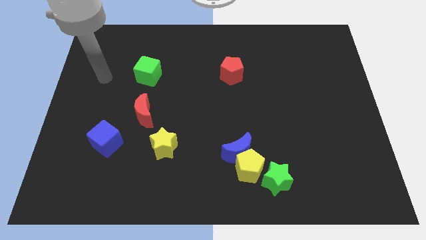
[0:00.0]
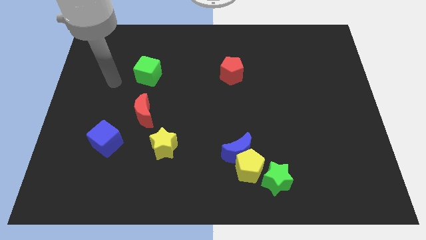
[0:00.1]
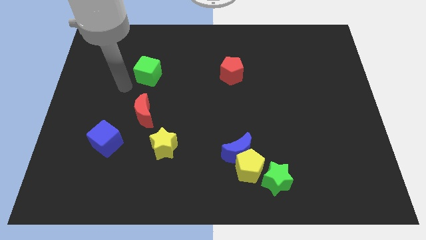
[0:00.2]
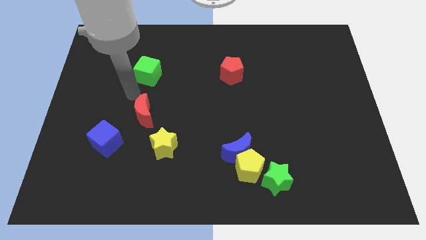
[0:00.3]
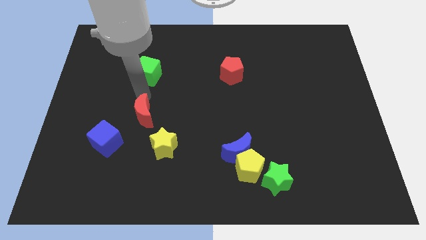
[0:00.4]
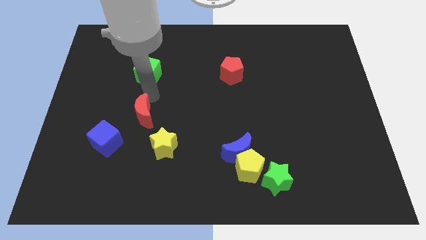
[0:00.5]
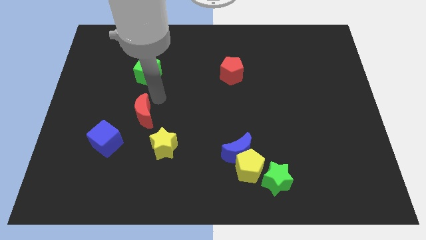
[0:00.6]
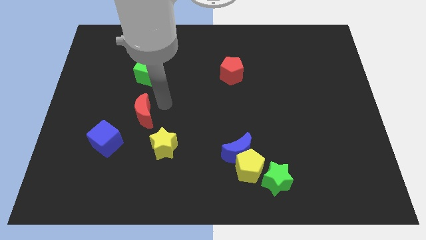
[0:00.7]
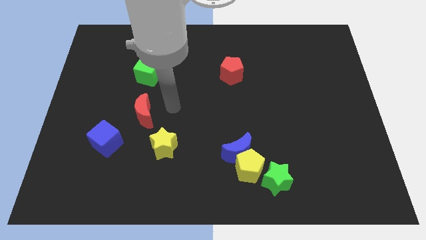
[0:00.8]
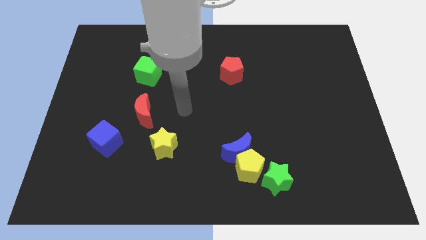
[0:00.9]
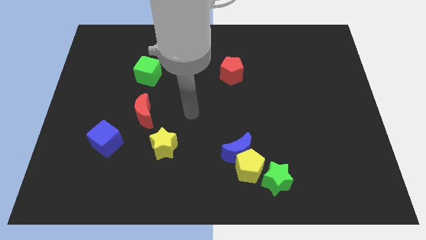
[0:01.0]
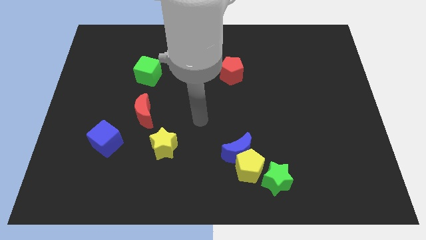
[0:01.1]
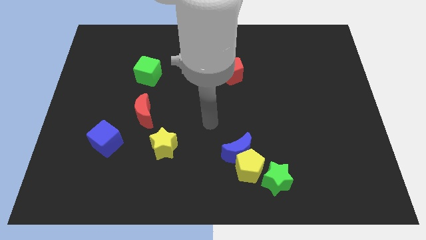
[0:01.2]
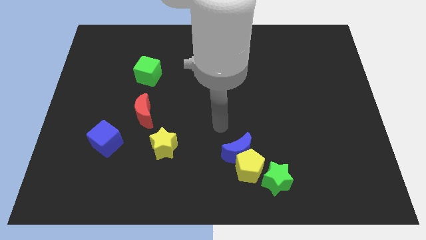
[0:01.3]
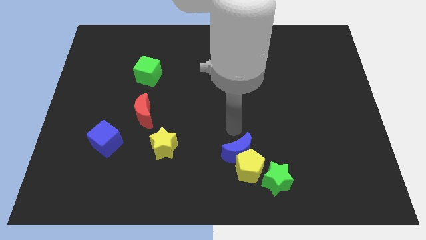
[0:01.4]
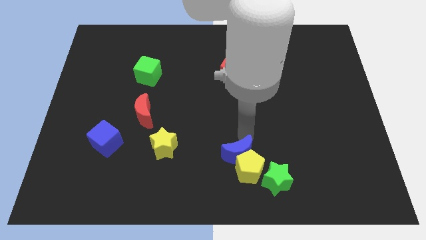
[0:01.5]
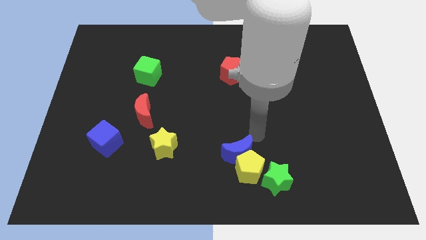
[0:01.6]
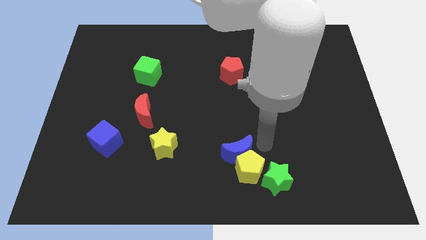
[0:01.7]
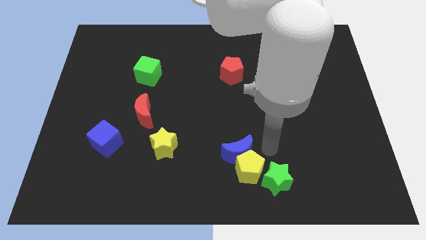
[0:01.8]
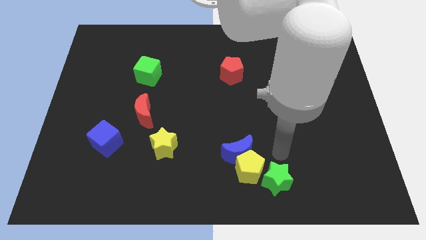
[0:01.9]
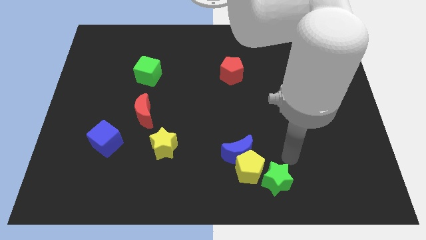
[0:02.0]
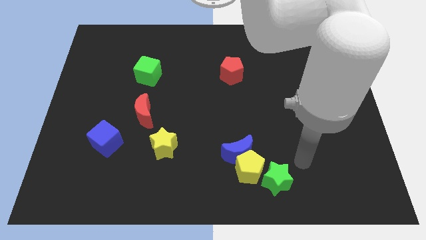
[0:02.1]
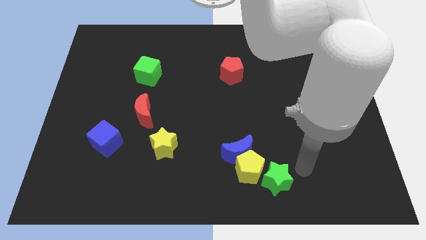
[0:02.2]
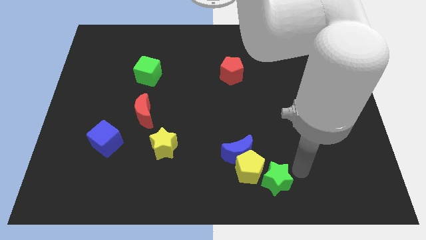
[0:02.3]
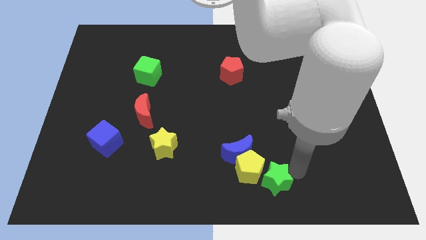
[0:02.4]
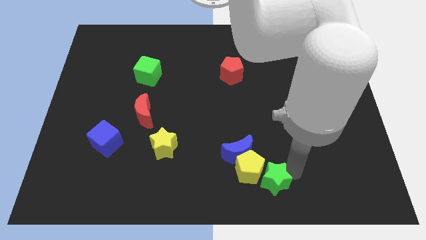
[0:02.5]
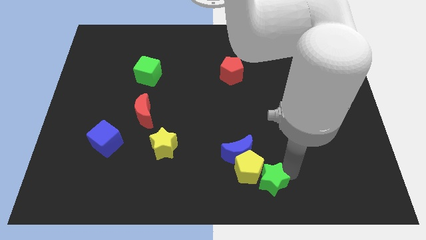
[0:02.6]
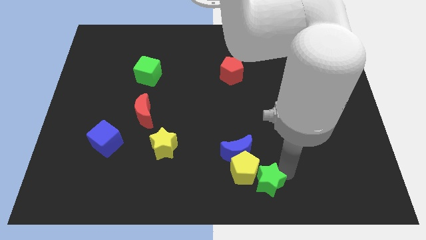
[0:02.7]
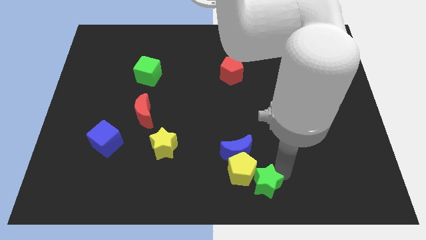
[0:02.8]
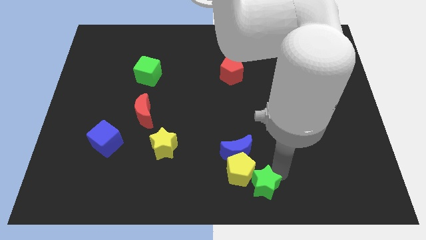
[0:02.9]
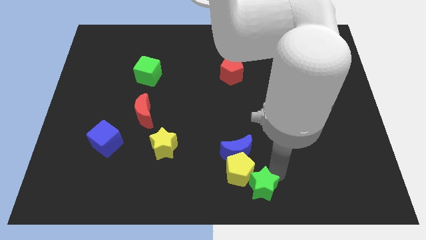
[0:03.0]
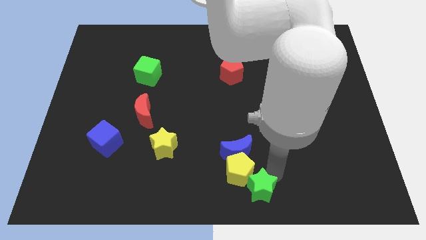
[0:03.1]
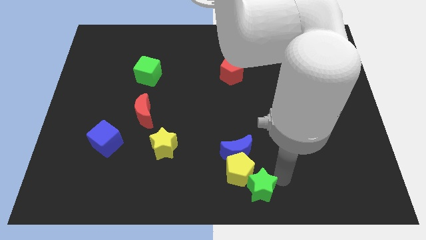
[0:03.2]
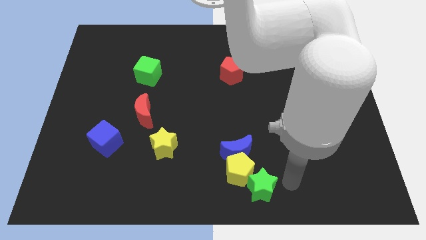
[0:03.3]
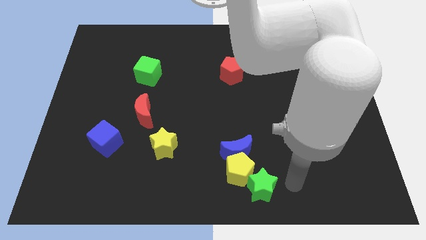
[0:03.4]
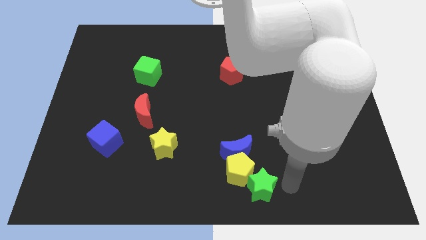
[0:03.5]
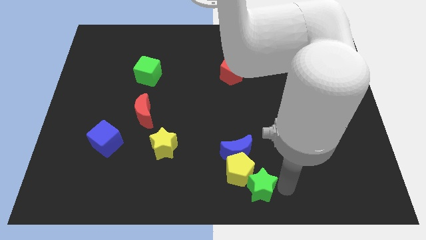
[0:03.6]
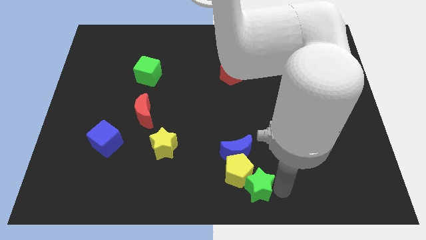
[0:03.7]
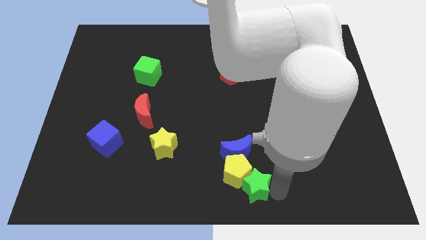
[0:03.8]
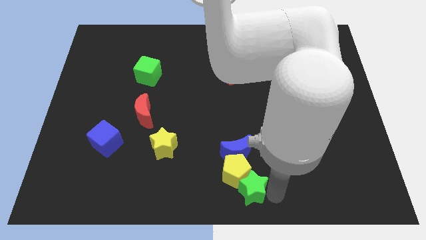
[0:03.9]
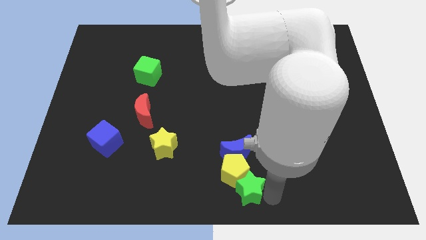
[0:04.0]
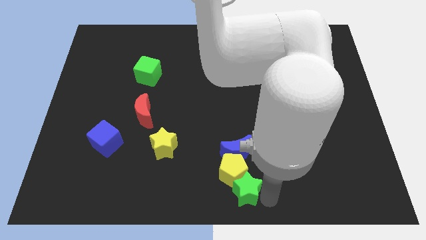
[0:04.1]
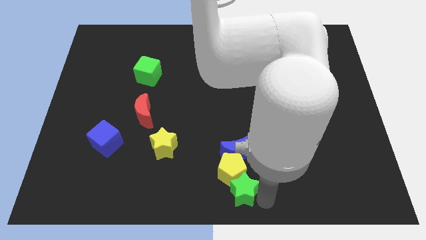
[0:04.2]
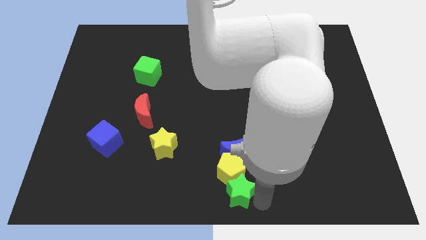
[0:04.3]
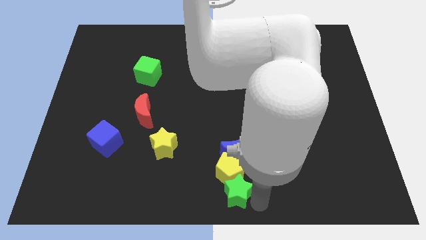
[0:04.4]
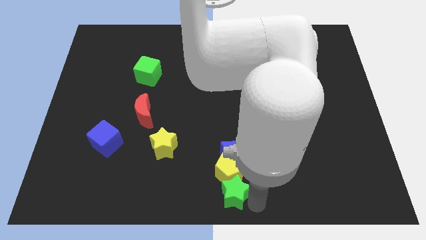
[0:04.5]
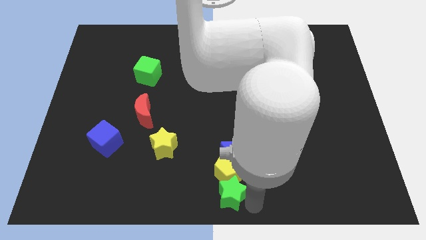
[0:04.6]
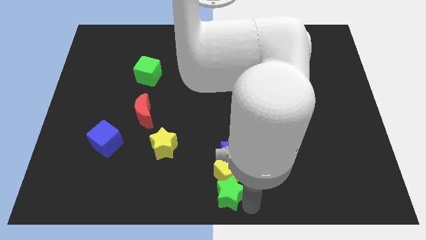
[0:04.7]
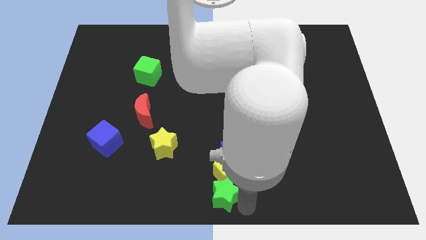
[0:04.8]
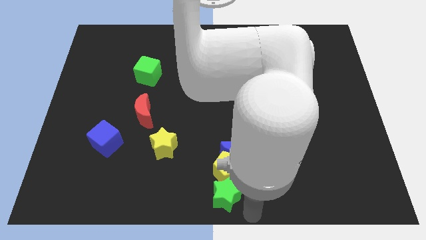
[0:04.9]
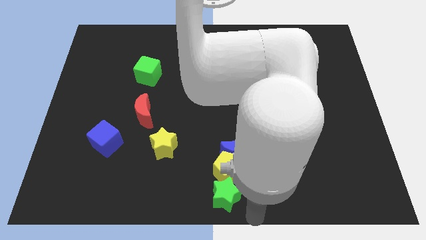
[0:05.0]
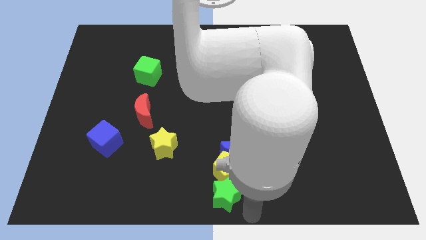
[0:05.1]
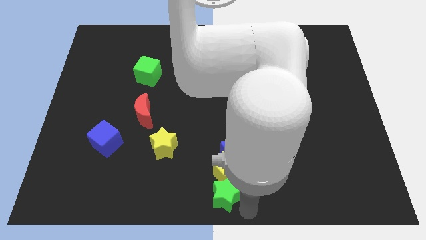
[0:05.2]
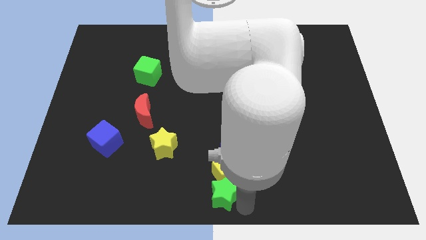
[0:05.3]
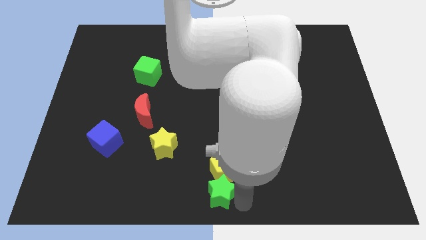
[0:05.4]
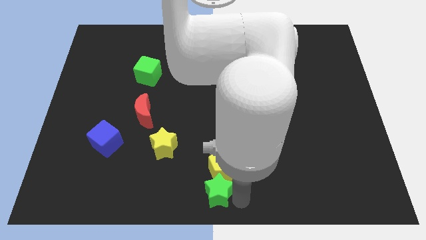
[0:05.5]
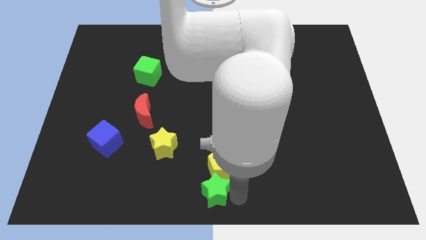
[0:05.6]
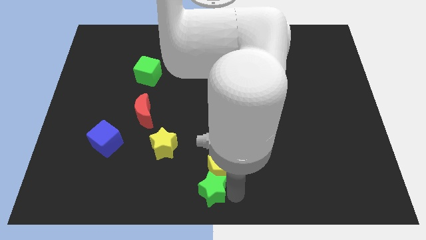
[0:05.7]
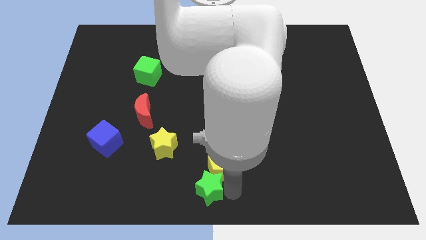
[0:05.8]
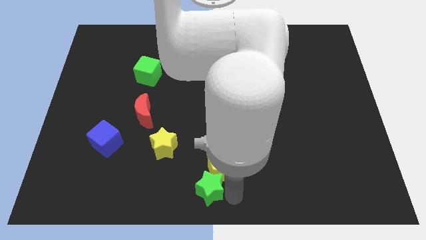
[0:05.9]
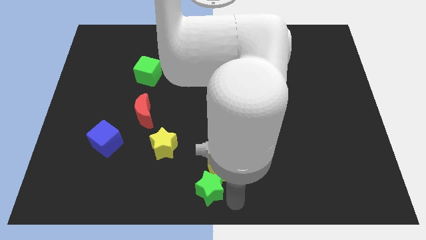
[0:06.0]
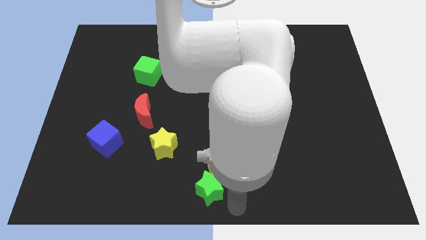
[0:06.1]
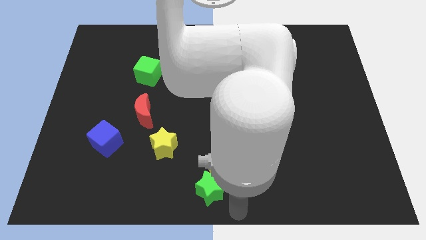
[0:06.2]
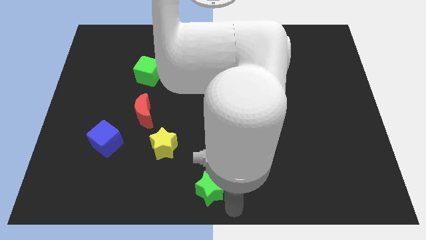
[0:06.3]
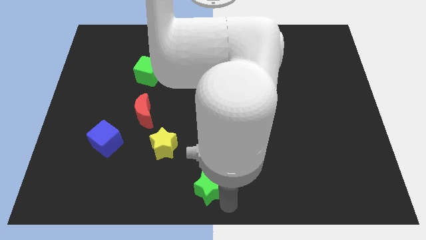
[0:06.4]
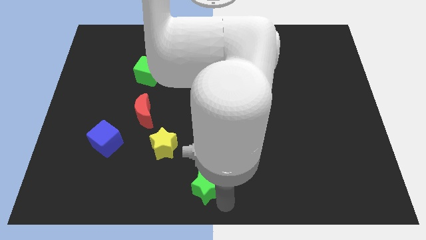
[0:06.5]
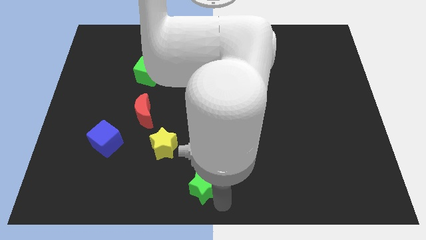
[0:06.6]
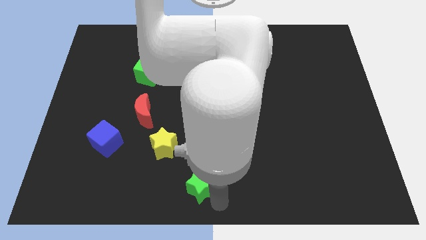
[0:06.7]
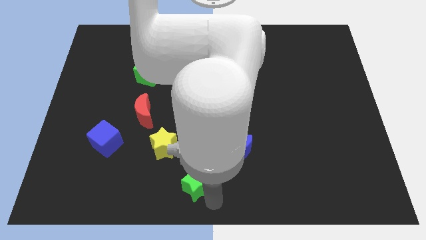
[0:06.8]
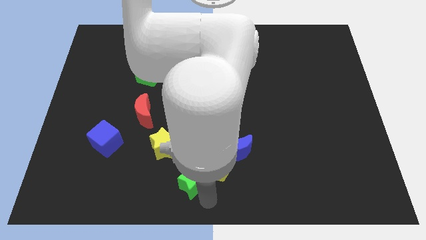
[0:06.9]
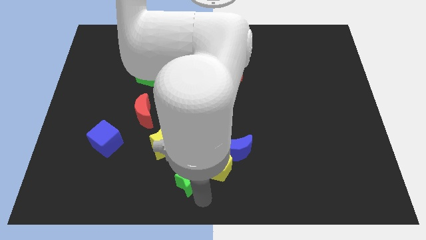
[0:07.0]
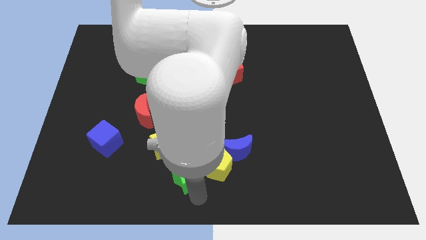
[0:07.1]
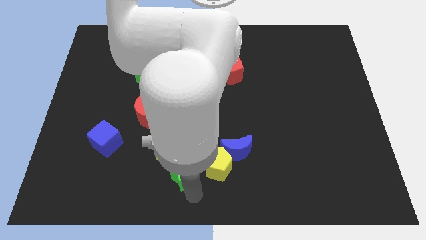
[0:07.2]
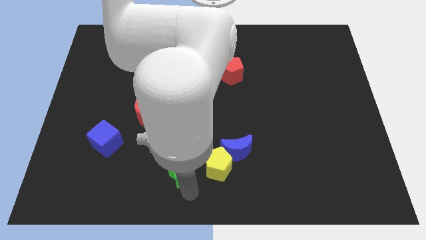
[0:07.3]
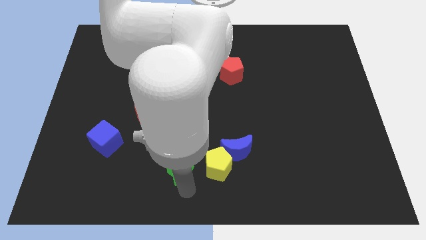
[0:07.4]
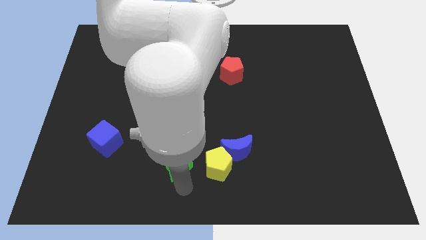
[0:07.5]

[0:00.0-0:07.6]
put the green star to the yellow star
